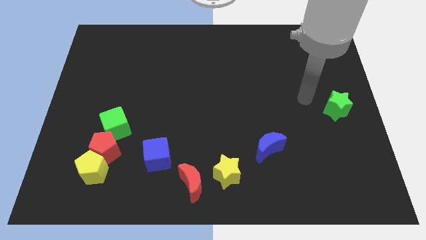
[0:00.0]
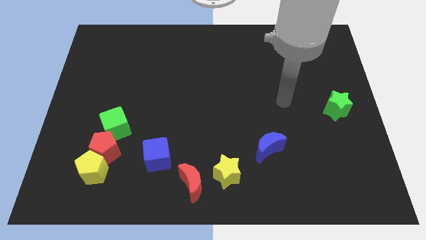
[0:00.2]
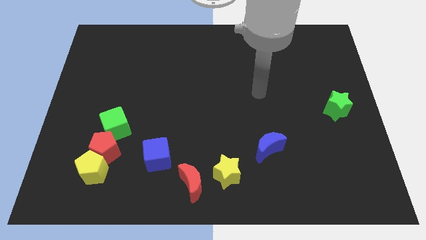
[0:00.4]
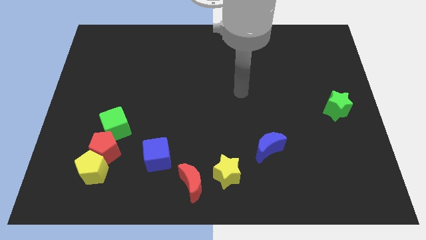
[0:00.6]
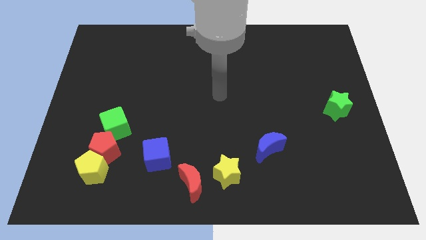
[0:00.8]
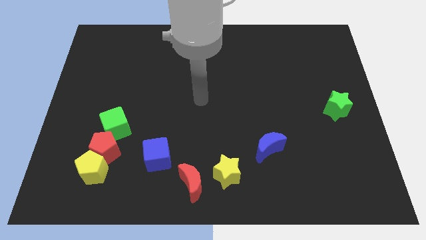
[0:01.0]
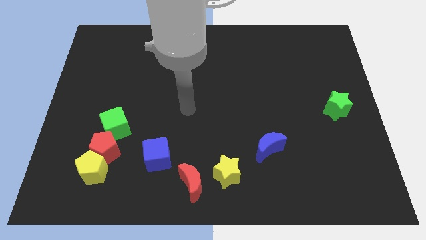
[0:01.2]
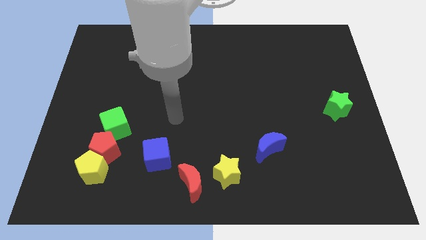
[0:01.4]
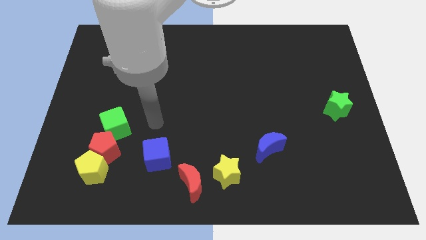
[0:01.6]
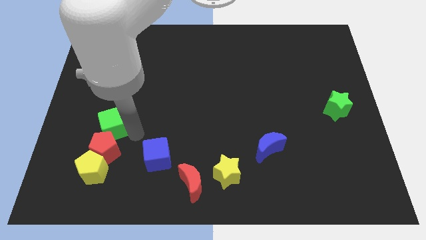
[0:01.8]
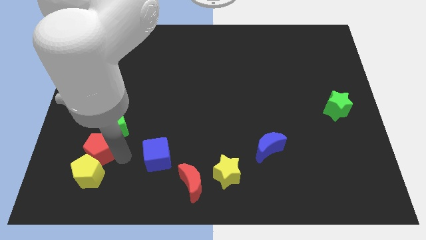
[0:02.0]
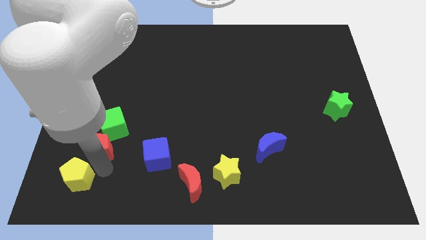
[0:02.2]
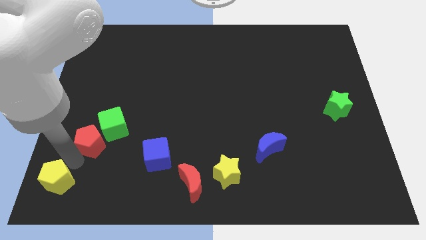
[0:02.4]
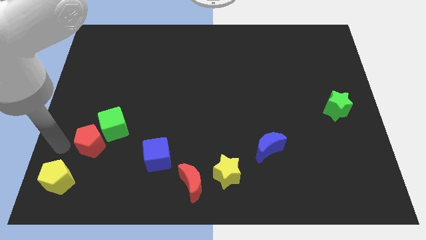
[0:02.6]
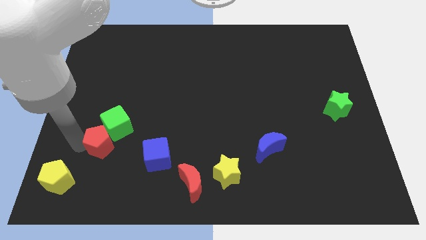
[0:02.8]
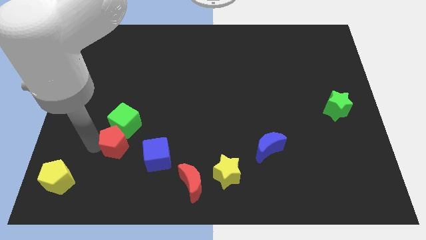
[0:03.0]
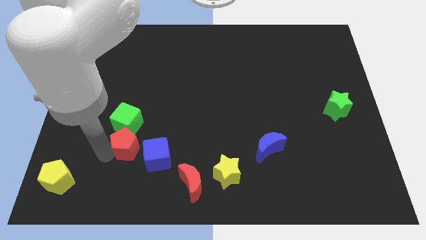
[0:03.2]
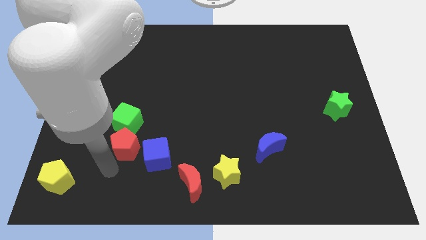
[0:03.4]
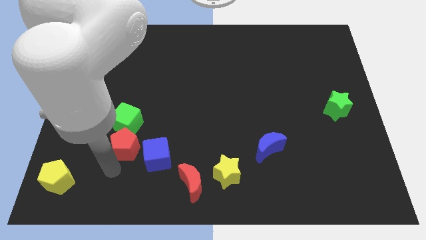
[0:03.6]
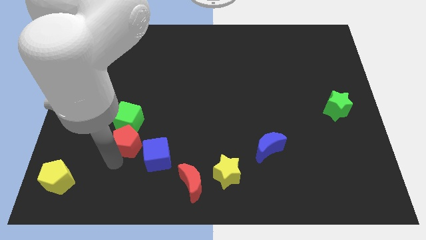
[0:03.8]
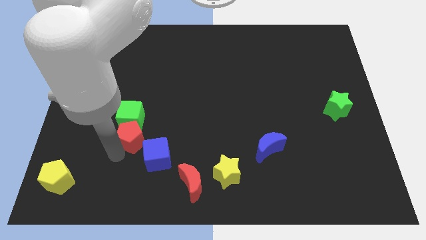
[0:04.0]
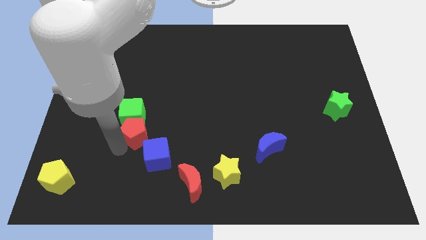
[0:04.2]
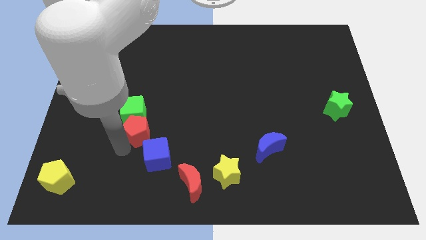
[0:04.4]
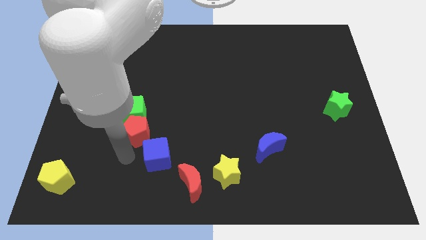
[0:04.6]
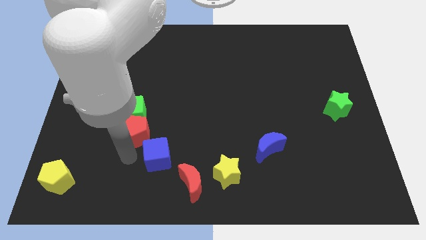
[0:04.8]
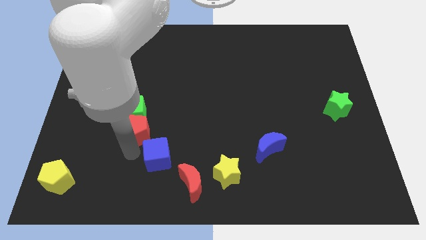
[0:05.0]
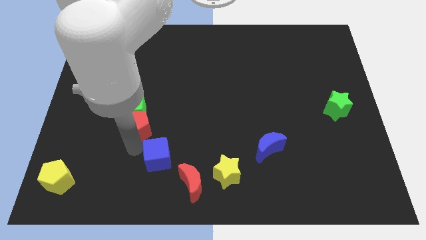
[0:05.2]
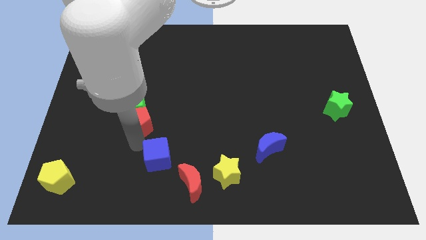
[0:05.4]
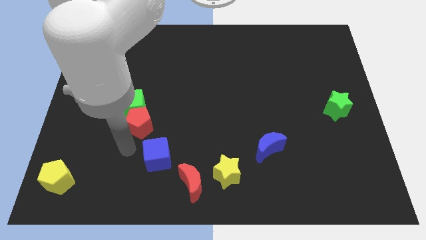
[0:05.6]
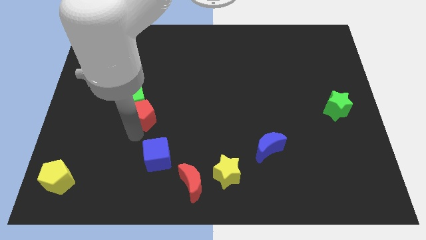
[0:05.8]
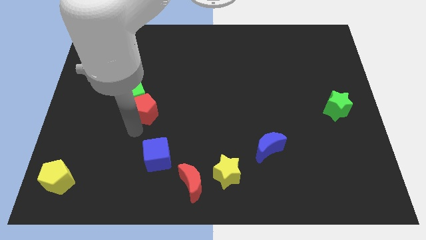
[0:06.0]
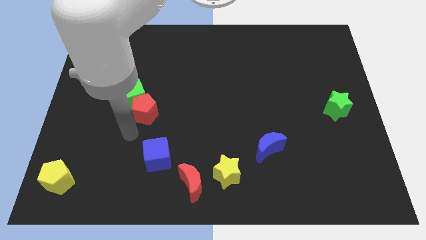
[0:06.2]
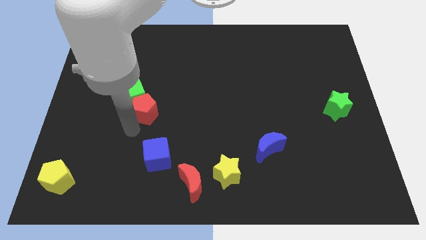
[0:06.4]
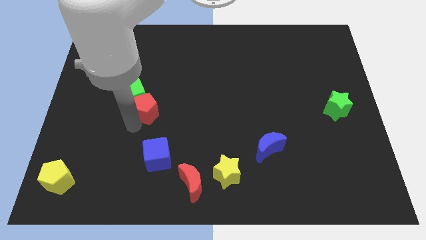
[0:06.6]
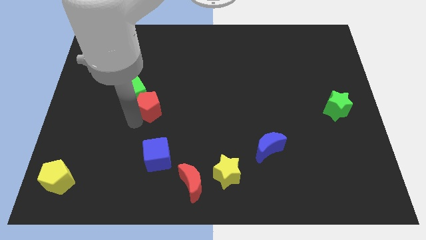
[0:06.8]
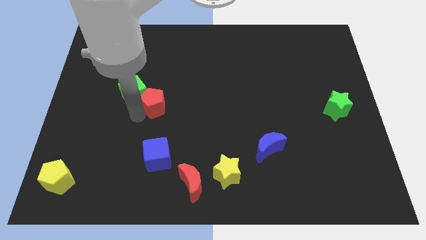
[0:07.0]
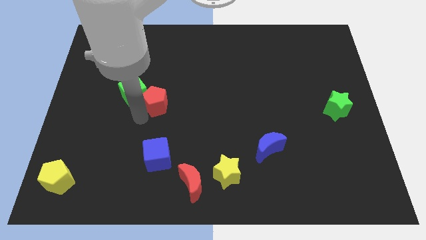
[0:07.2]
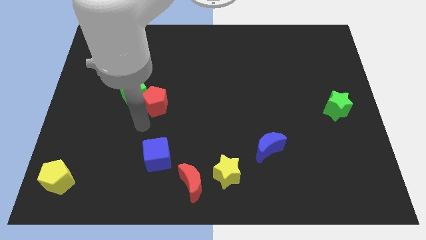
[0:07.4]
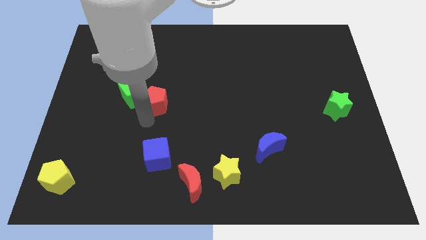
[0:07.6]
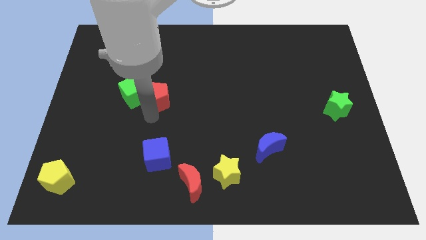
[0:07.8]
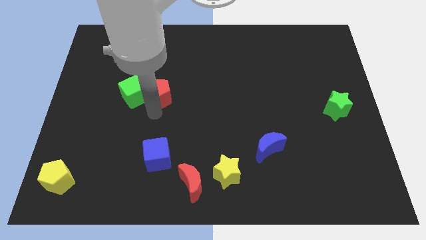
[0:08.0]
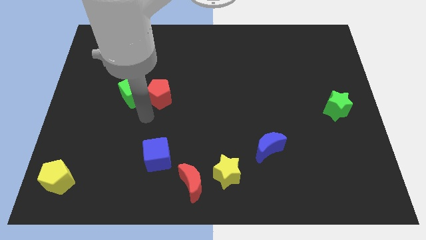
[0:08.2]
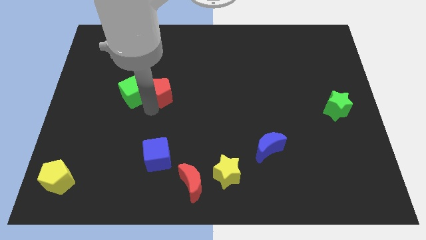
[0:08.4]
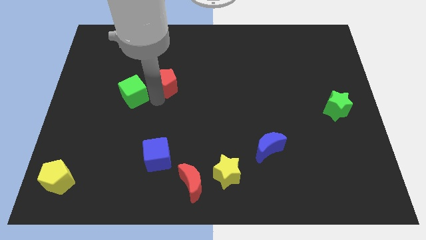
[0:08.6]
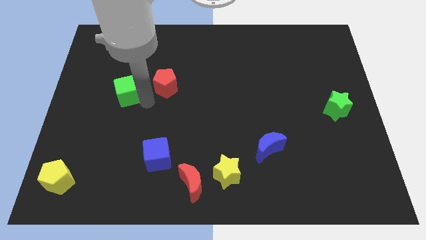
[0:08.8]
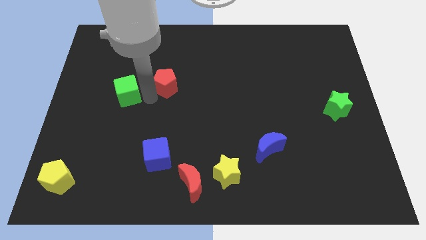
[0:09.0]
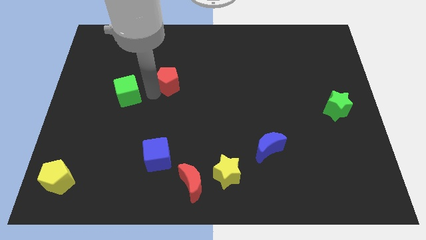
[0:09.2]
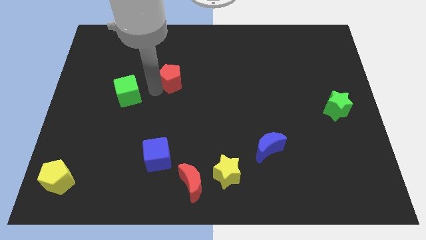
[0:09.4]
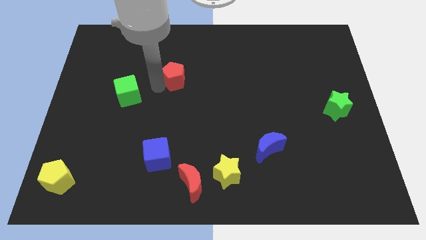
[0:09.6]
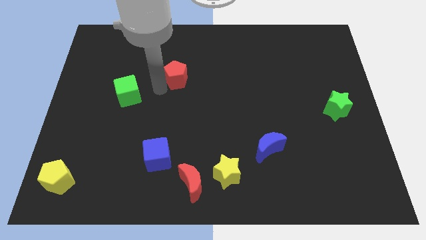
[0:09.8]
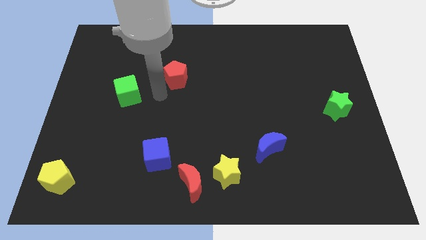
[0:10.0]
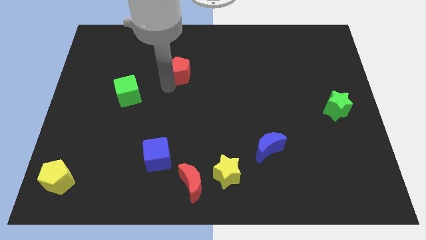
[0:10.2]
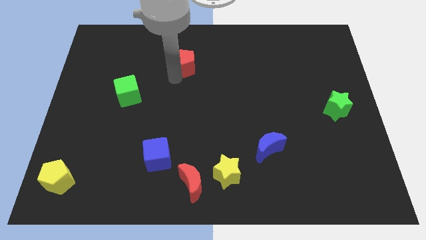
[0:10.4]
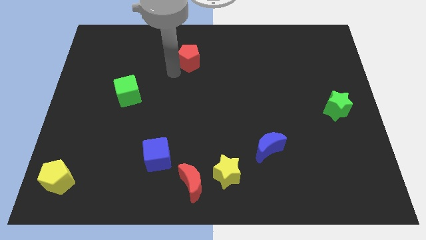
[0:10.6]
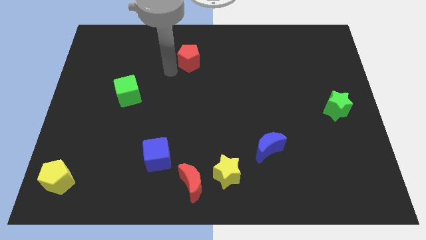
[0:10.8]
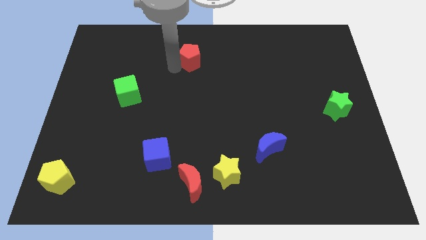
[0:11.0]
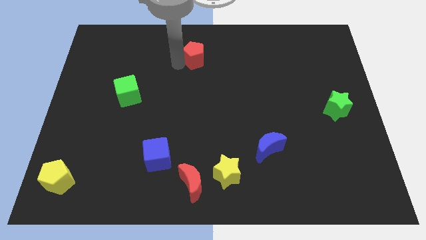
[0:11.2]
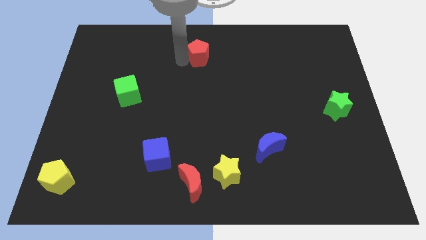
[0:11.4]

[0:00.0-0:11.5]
move the red pentagon to the top side

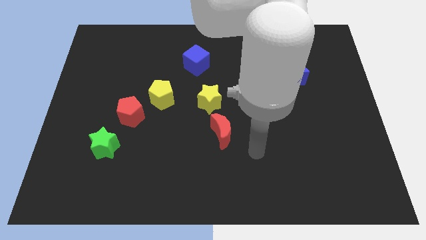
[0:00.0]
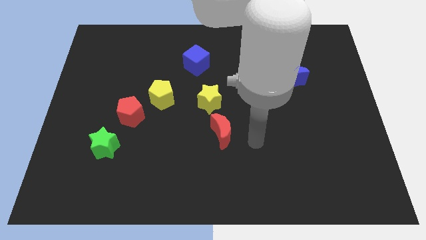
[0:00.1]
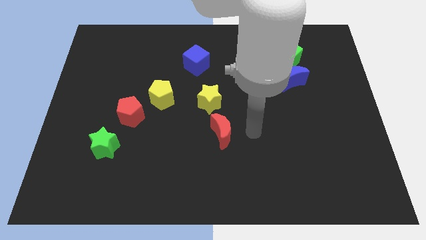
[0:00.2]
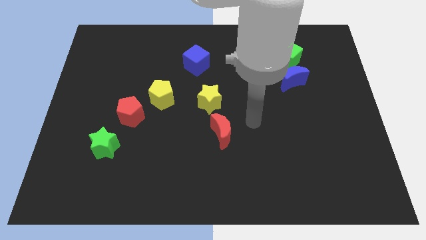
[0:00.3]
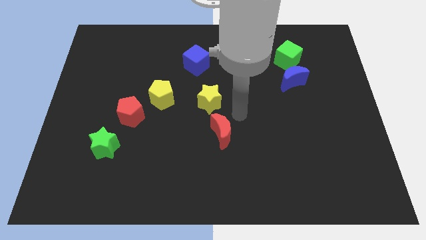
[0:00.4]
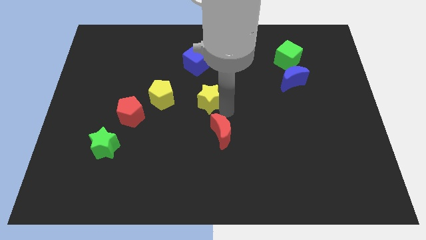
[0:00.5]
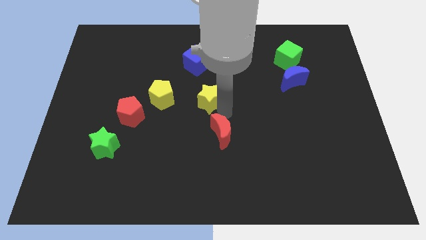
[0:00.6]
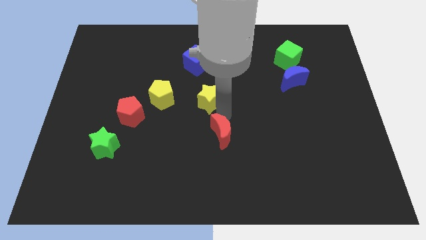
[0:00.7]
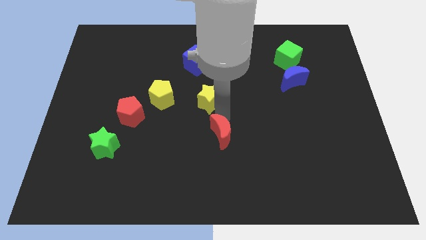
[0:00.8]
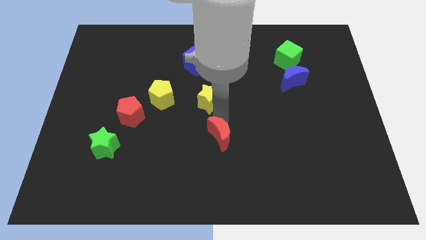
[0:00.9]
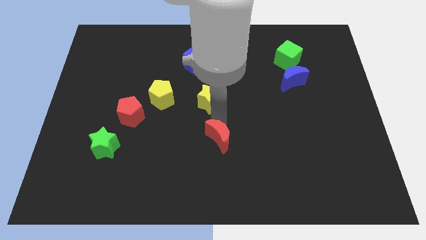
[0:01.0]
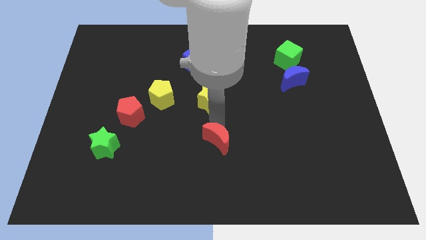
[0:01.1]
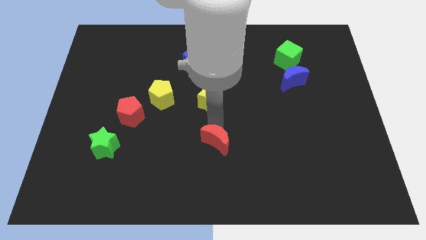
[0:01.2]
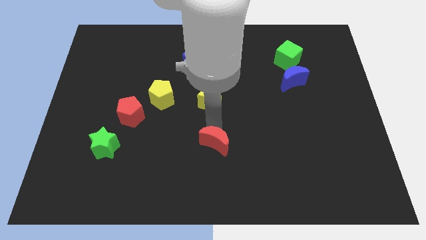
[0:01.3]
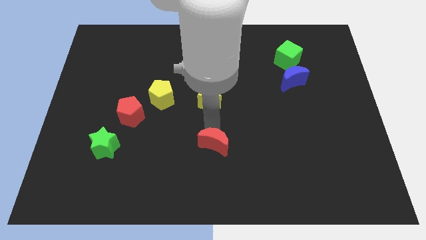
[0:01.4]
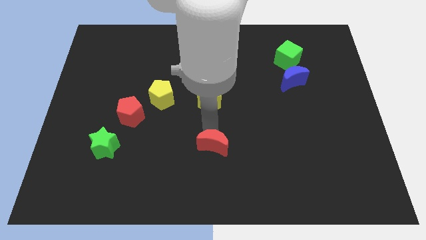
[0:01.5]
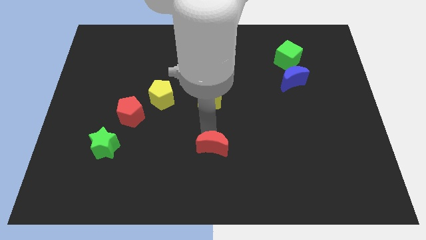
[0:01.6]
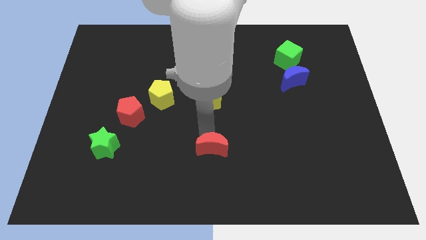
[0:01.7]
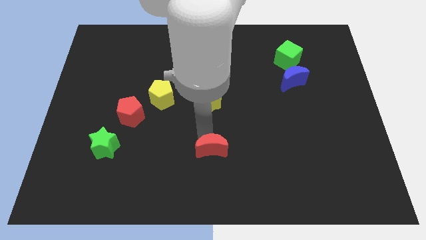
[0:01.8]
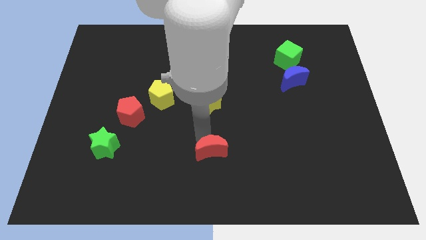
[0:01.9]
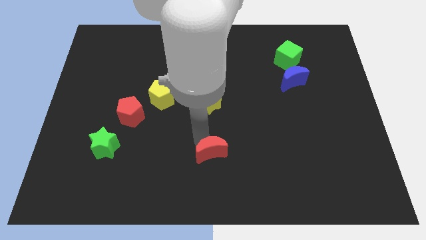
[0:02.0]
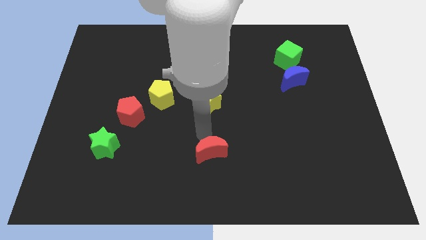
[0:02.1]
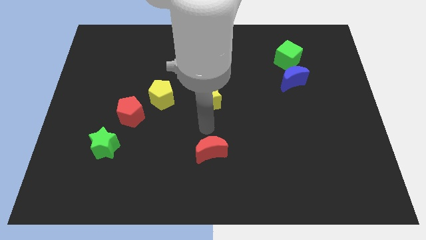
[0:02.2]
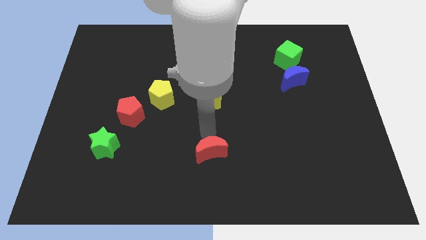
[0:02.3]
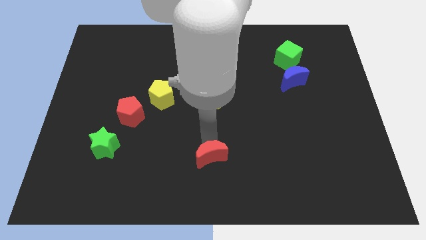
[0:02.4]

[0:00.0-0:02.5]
put the red moon to the bottom side
